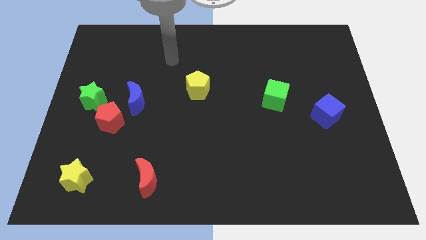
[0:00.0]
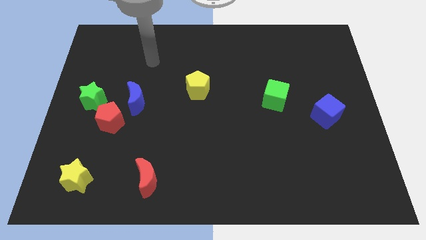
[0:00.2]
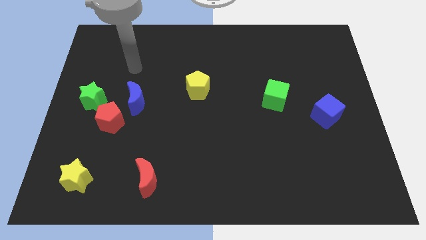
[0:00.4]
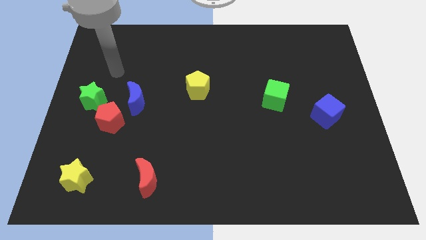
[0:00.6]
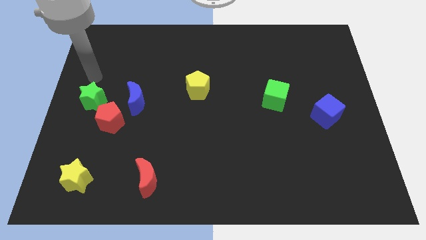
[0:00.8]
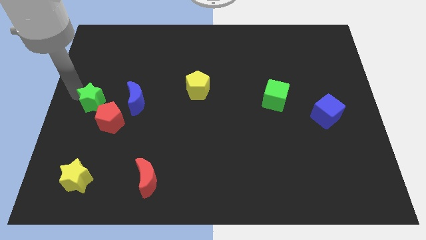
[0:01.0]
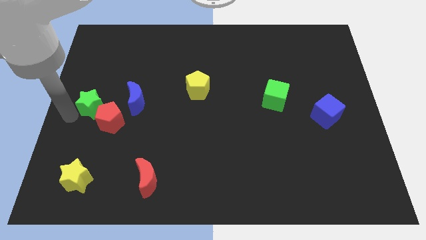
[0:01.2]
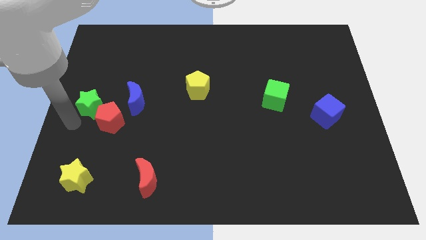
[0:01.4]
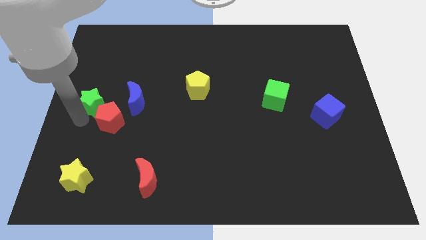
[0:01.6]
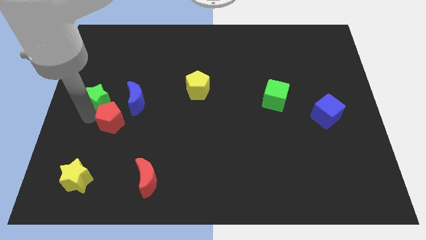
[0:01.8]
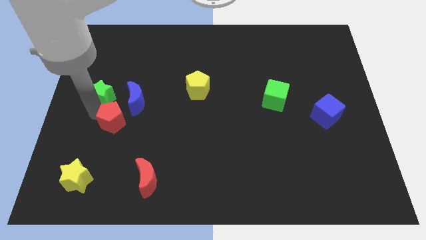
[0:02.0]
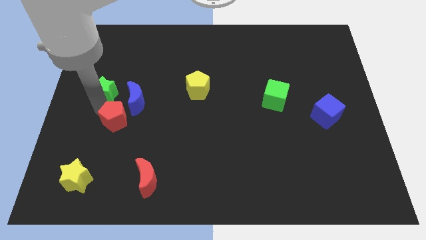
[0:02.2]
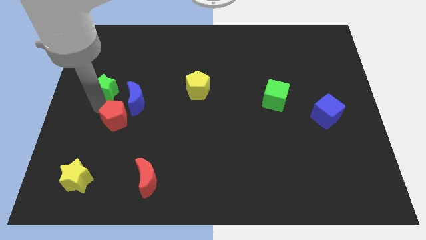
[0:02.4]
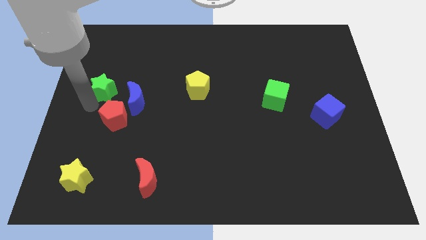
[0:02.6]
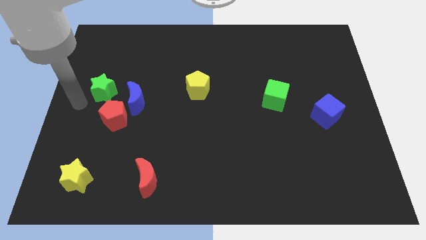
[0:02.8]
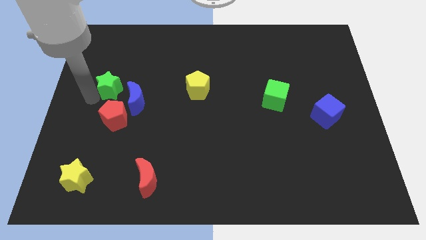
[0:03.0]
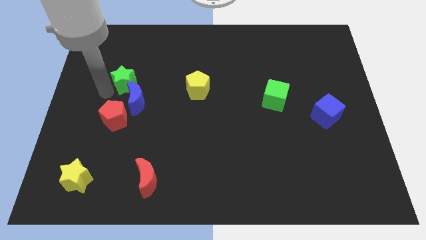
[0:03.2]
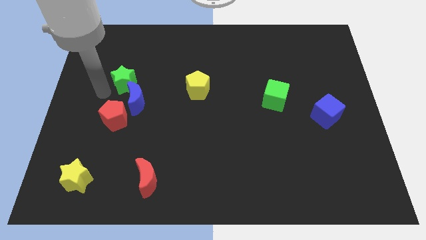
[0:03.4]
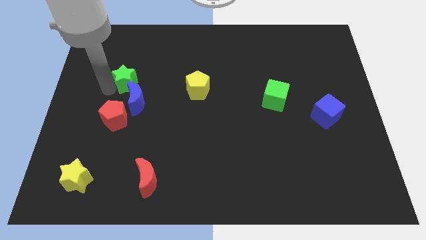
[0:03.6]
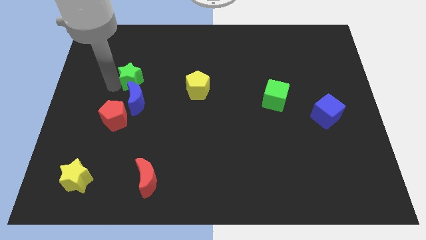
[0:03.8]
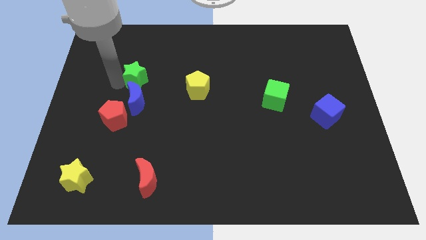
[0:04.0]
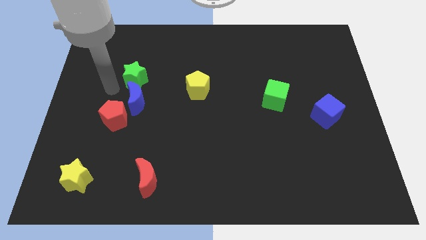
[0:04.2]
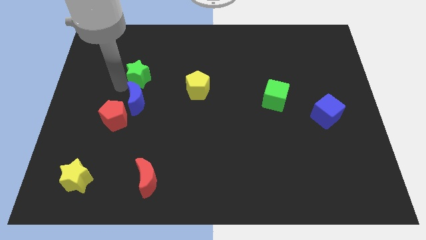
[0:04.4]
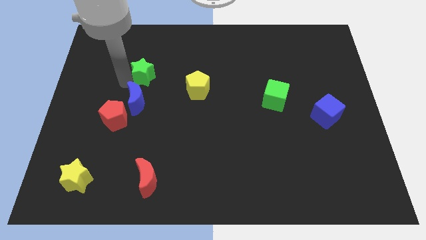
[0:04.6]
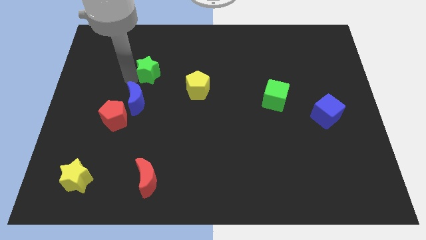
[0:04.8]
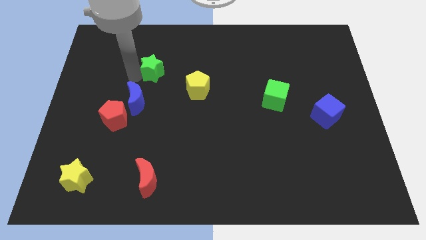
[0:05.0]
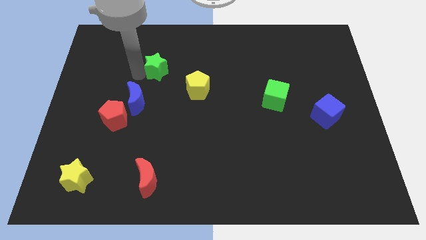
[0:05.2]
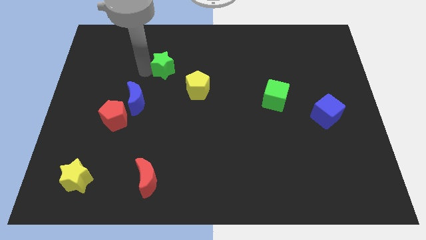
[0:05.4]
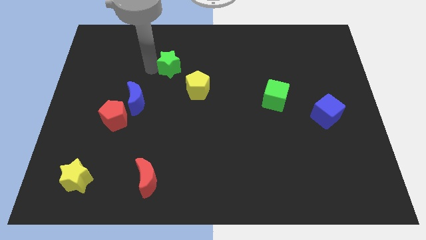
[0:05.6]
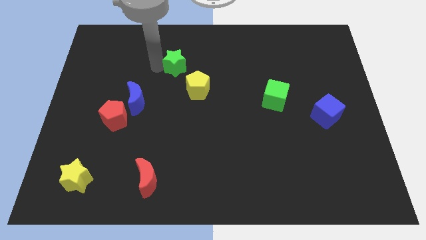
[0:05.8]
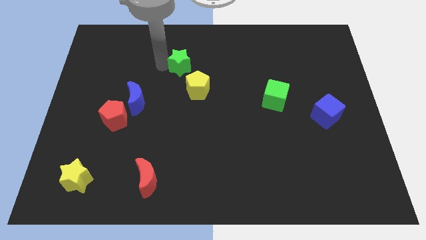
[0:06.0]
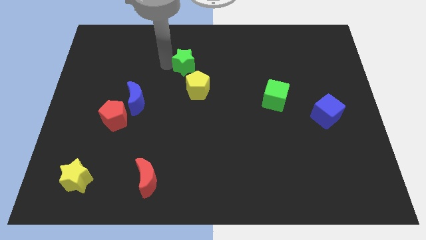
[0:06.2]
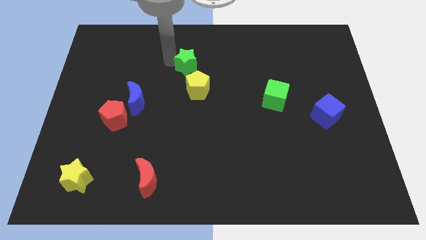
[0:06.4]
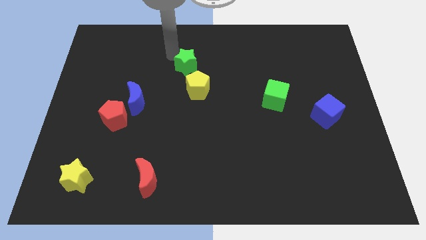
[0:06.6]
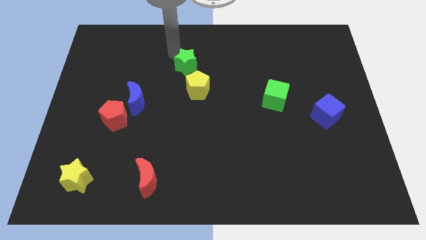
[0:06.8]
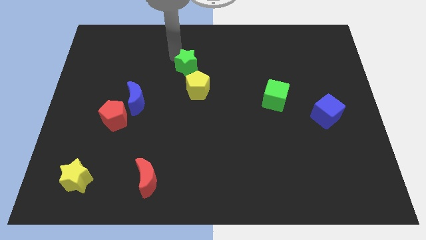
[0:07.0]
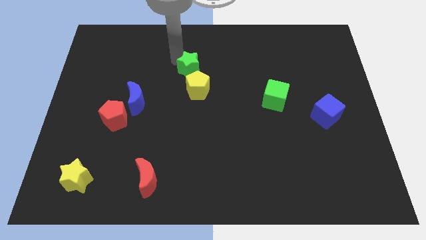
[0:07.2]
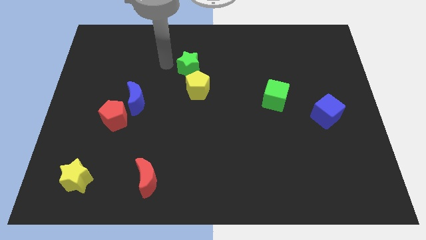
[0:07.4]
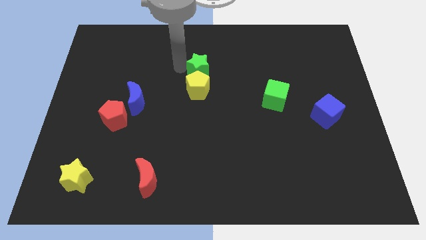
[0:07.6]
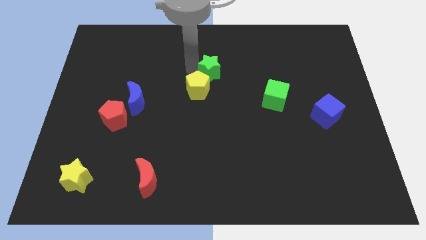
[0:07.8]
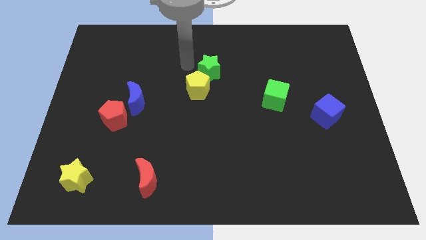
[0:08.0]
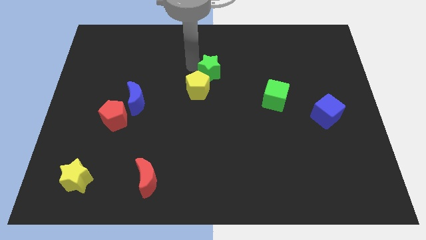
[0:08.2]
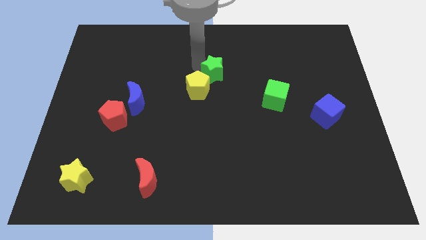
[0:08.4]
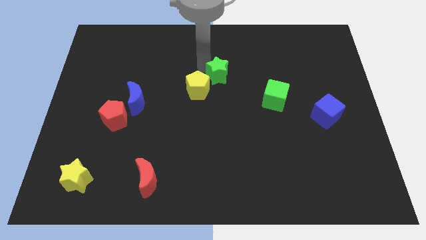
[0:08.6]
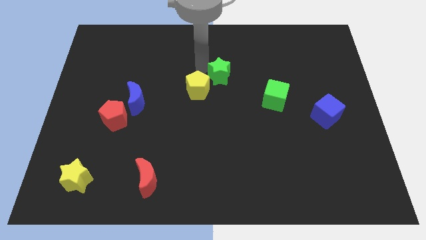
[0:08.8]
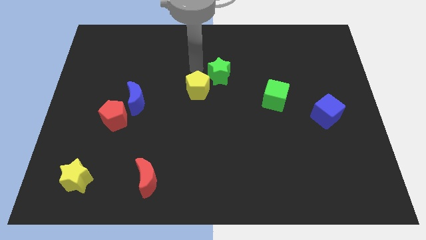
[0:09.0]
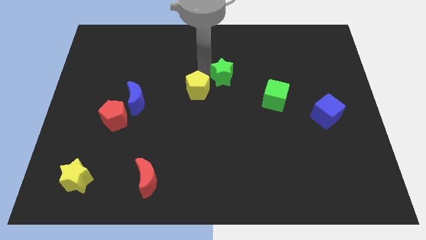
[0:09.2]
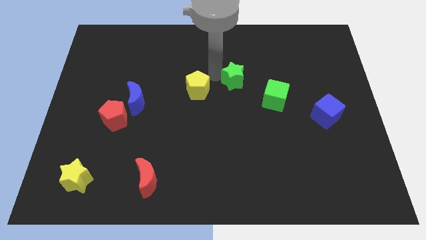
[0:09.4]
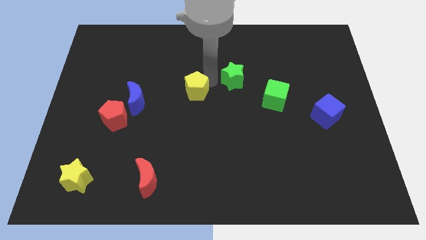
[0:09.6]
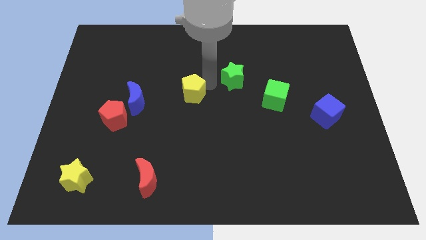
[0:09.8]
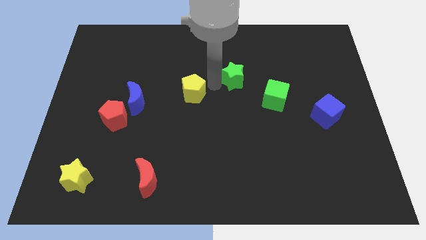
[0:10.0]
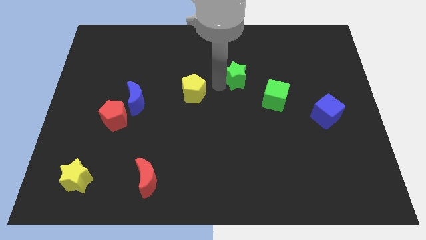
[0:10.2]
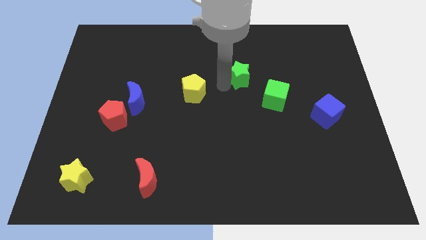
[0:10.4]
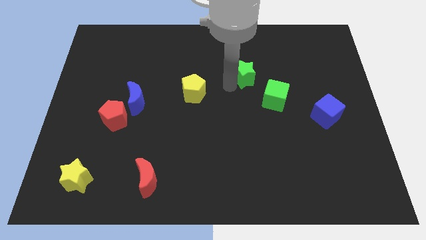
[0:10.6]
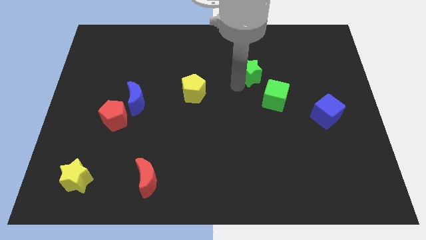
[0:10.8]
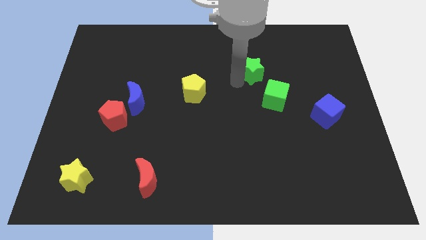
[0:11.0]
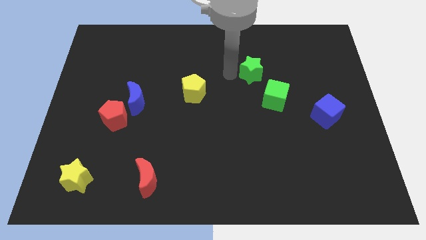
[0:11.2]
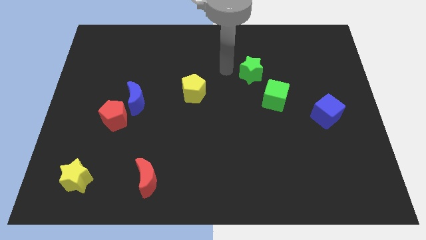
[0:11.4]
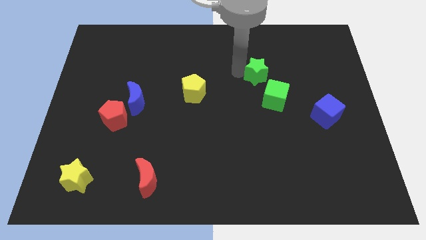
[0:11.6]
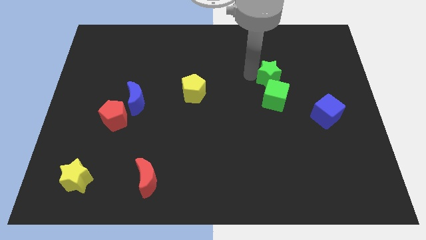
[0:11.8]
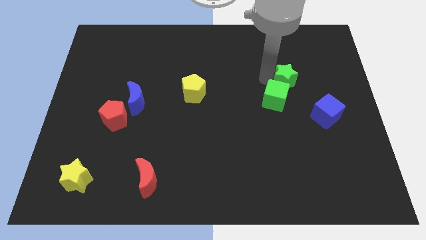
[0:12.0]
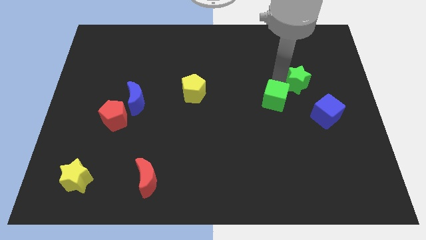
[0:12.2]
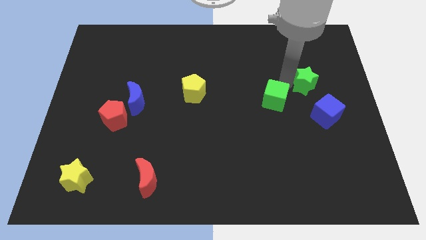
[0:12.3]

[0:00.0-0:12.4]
slide the green star above the blue cube
